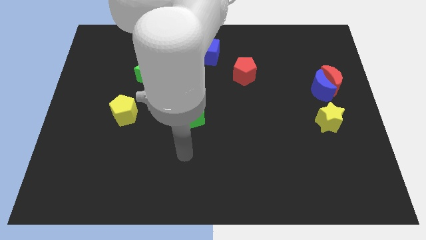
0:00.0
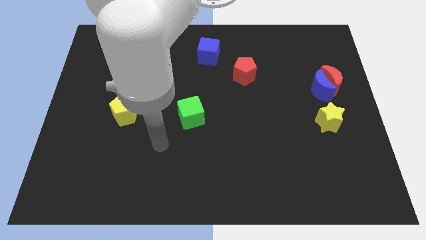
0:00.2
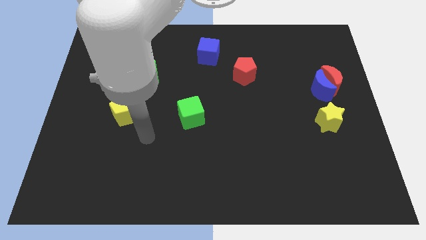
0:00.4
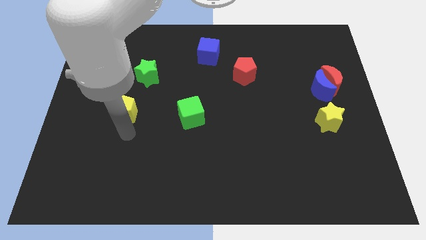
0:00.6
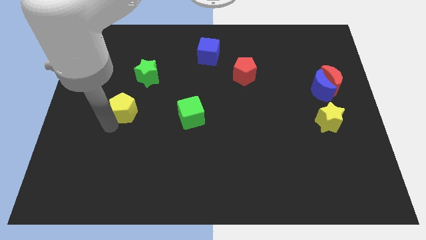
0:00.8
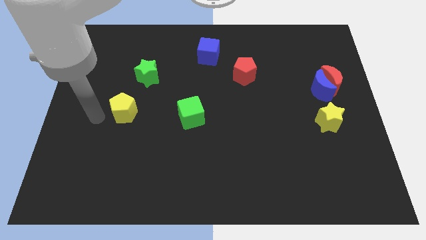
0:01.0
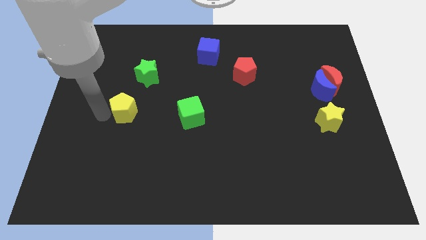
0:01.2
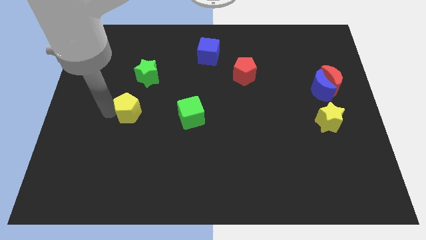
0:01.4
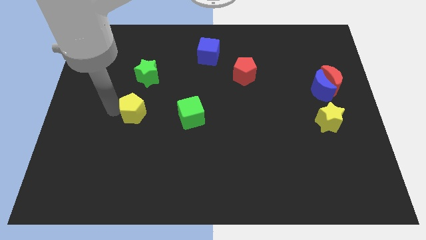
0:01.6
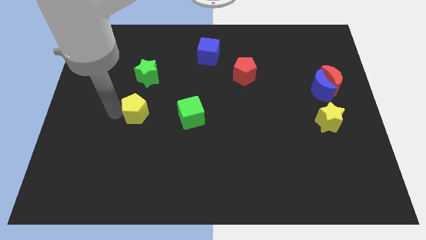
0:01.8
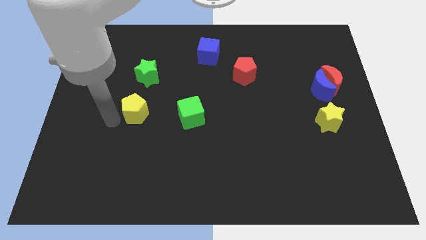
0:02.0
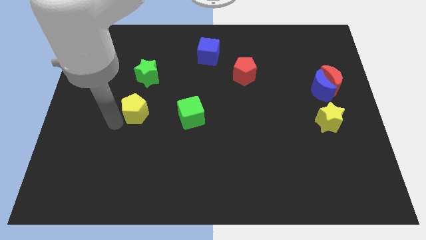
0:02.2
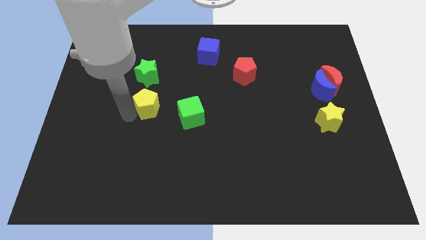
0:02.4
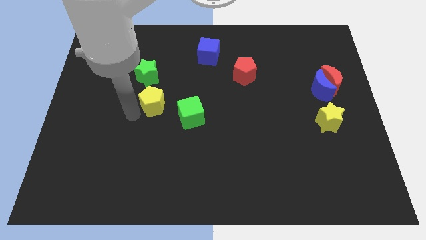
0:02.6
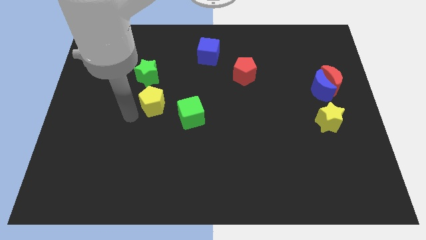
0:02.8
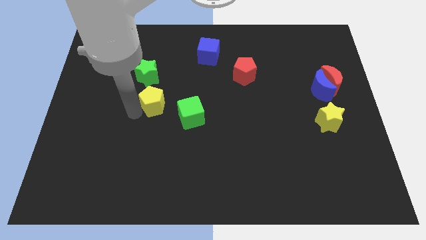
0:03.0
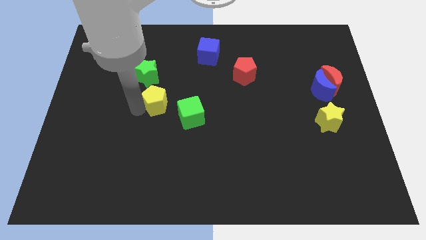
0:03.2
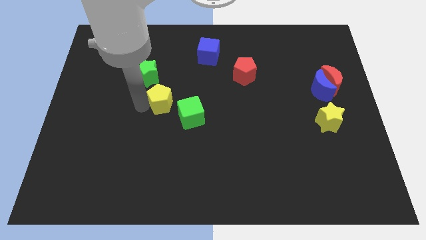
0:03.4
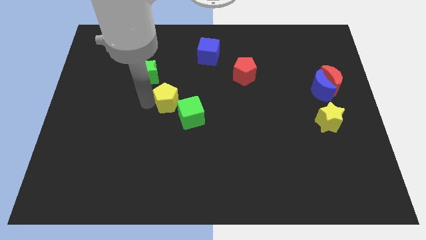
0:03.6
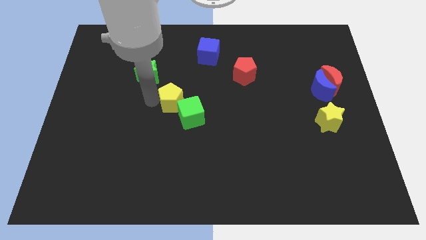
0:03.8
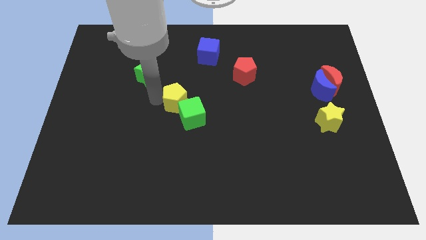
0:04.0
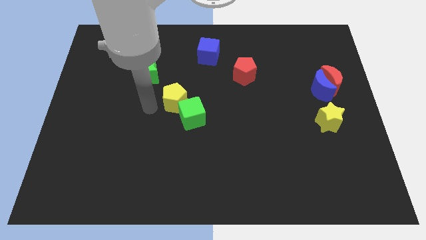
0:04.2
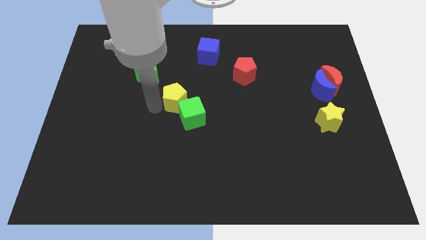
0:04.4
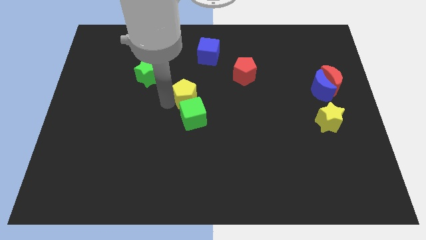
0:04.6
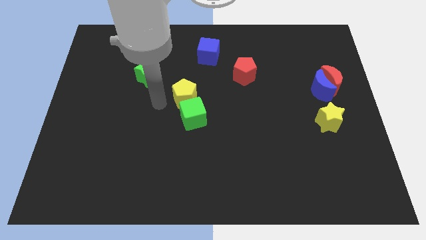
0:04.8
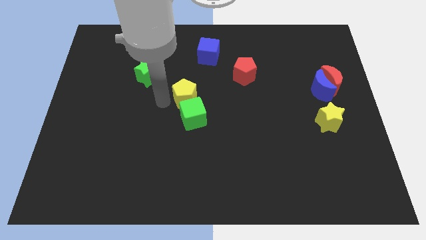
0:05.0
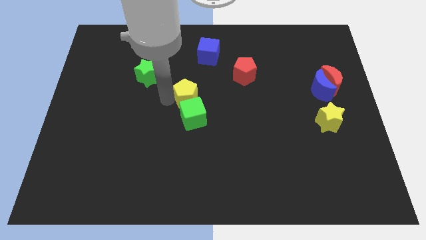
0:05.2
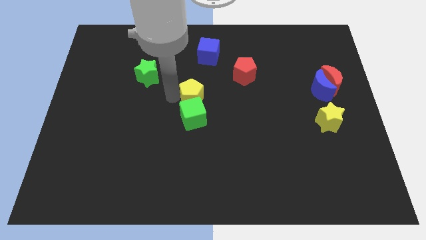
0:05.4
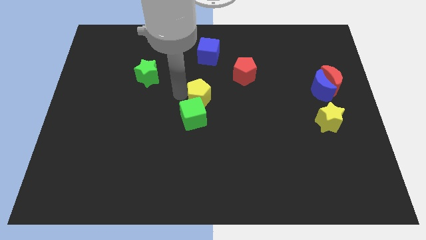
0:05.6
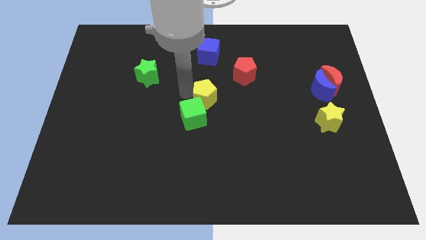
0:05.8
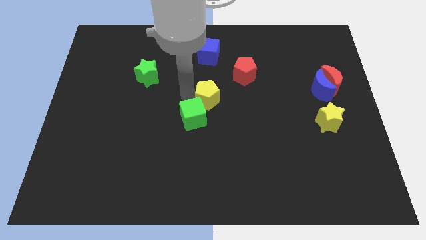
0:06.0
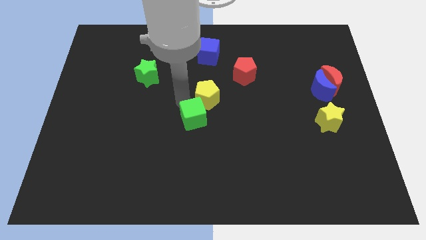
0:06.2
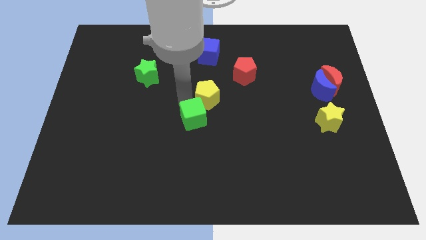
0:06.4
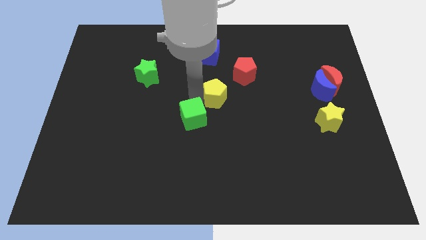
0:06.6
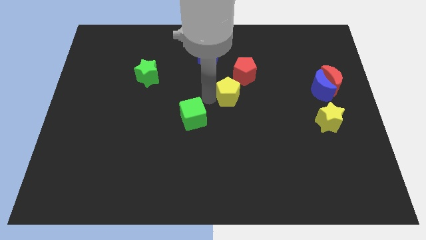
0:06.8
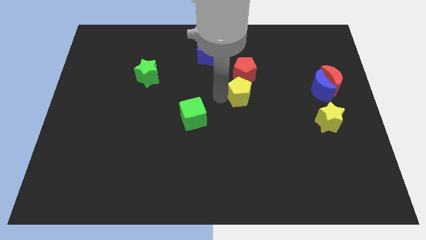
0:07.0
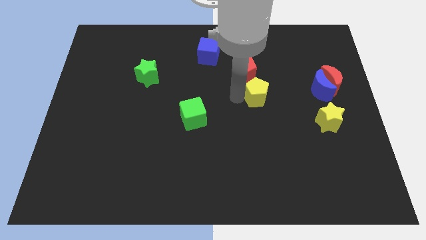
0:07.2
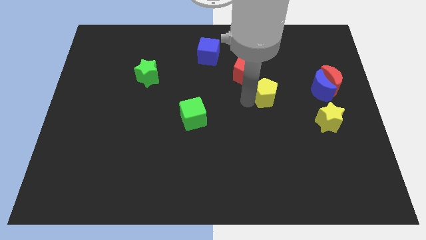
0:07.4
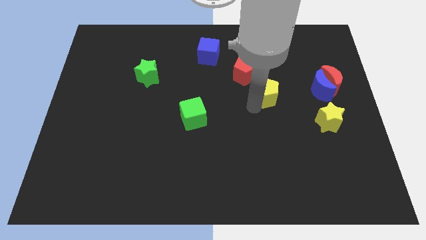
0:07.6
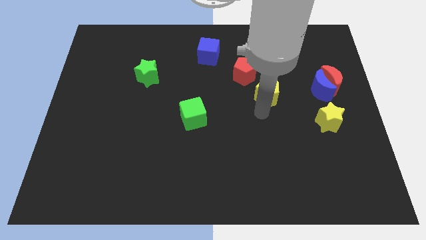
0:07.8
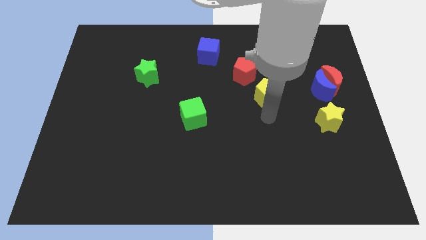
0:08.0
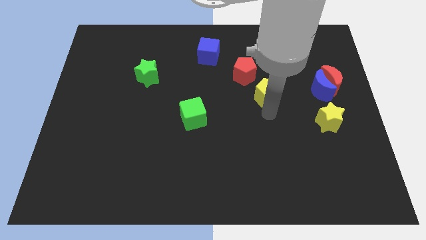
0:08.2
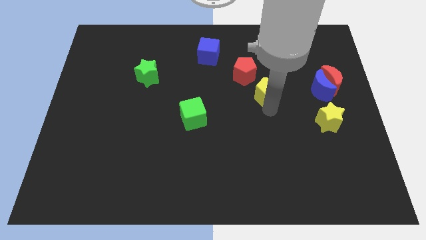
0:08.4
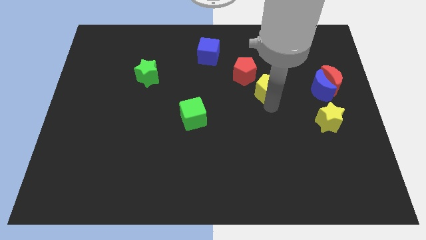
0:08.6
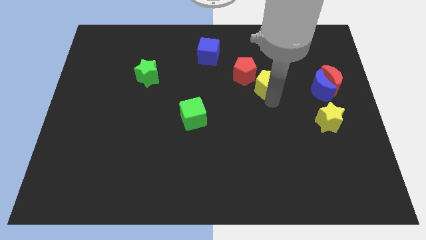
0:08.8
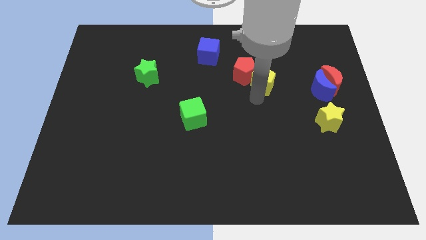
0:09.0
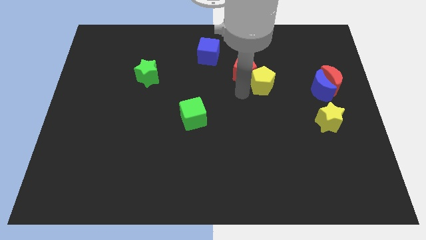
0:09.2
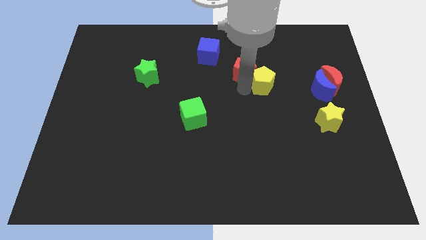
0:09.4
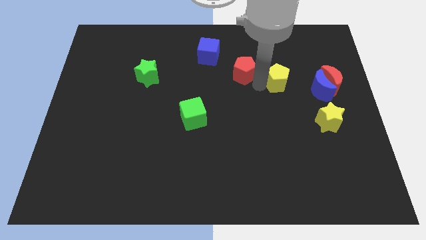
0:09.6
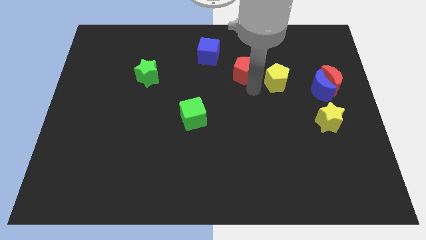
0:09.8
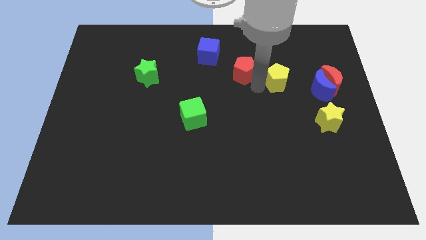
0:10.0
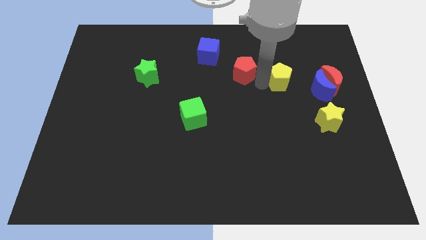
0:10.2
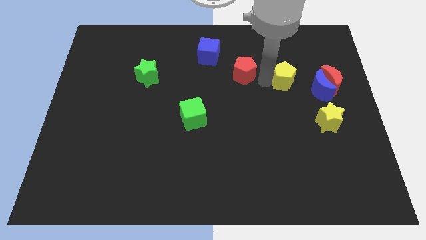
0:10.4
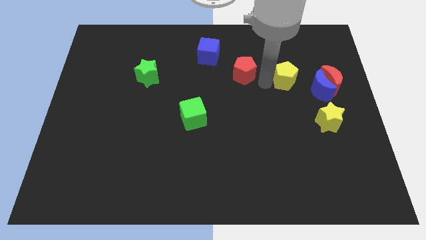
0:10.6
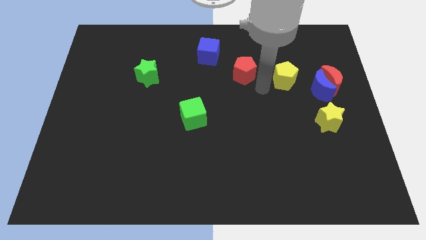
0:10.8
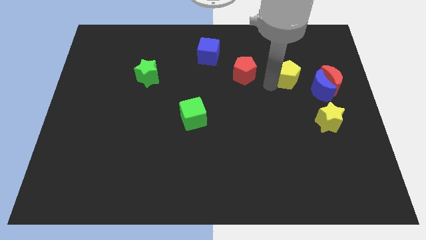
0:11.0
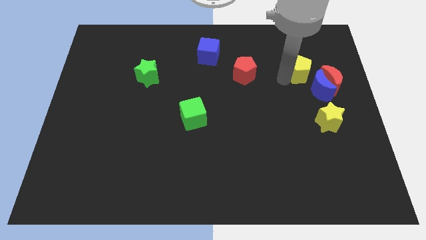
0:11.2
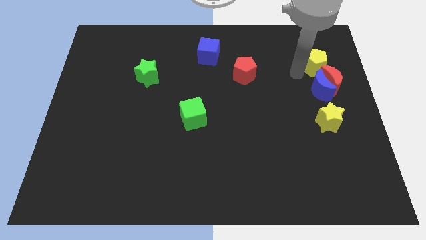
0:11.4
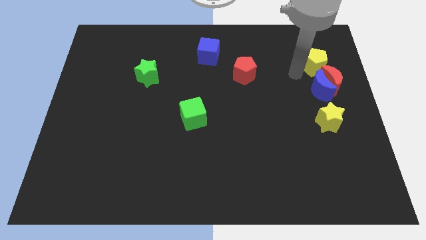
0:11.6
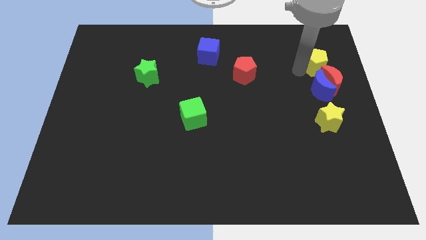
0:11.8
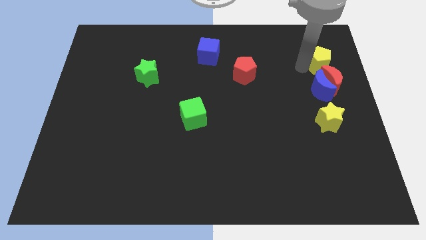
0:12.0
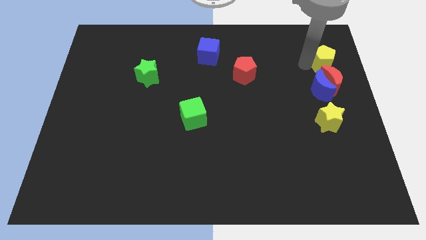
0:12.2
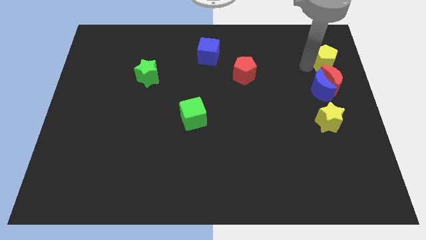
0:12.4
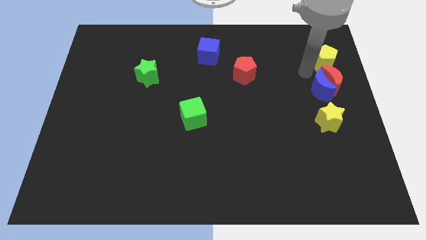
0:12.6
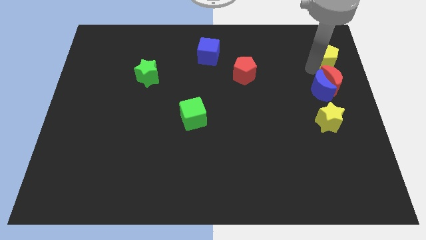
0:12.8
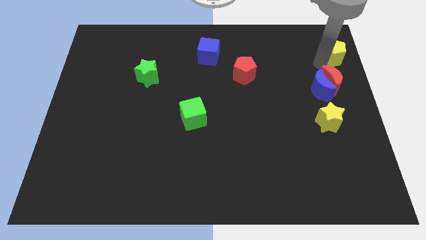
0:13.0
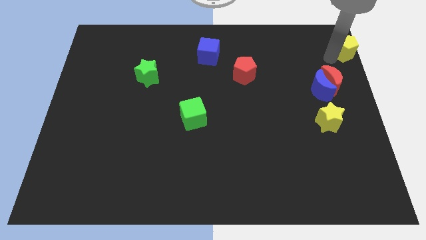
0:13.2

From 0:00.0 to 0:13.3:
slide the yellow pentagon to the upper right corner

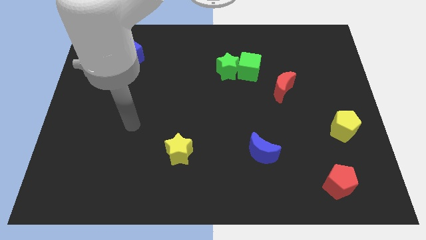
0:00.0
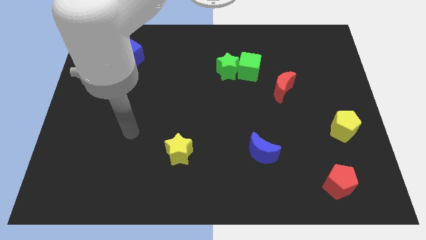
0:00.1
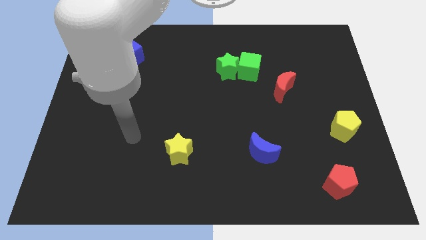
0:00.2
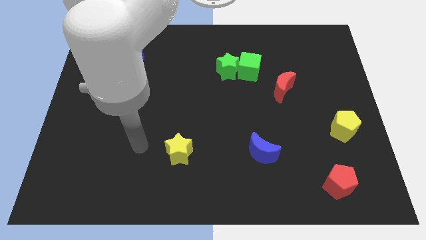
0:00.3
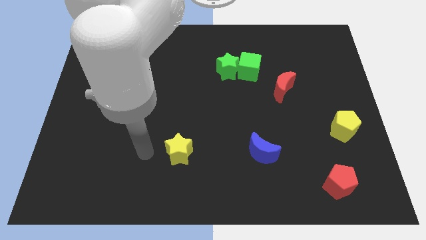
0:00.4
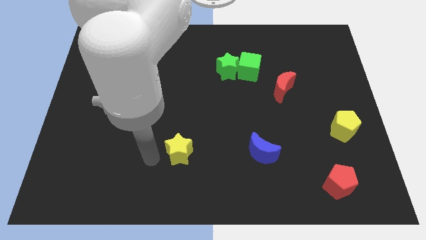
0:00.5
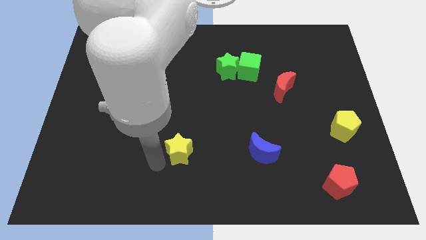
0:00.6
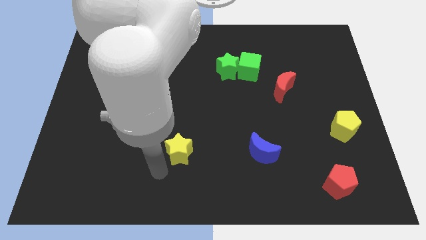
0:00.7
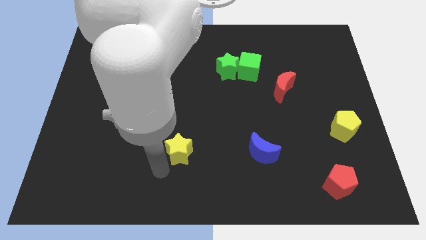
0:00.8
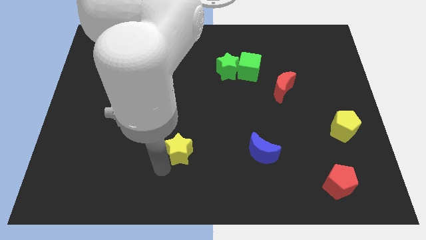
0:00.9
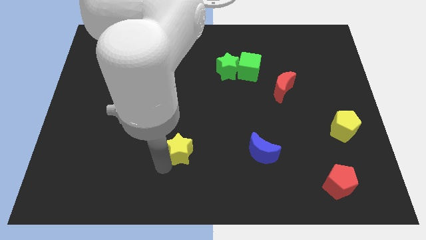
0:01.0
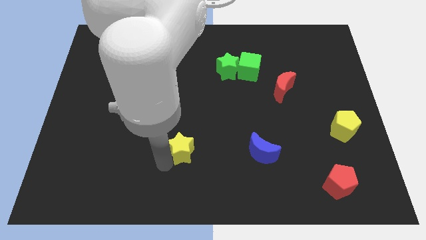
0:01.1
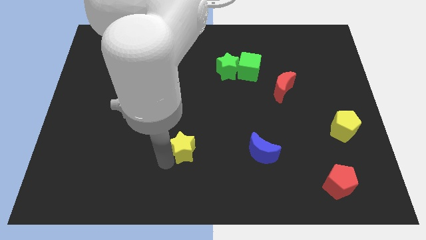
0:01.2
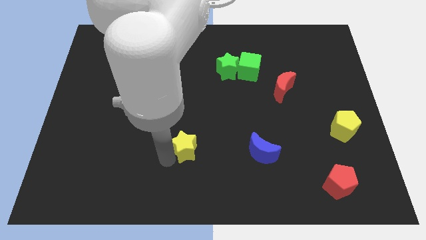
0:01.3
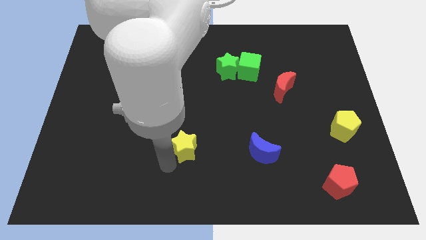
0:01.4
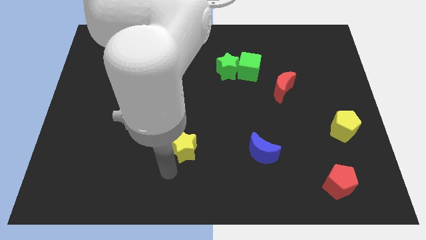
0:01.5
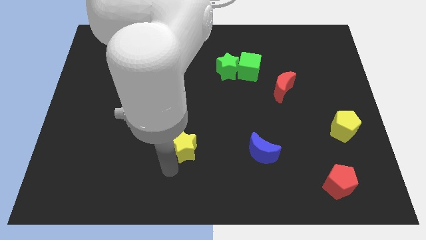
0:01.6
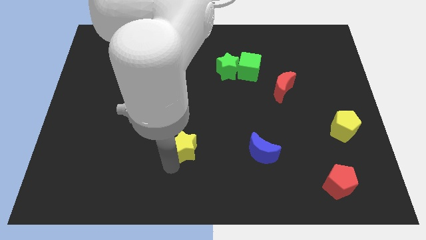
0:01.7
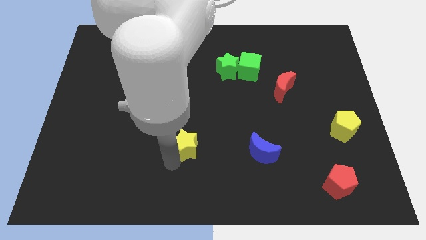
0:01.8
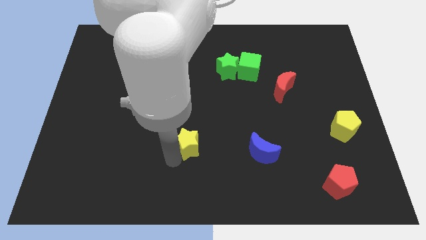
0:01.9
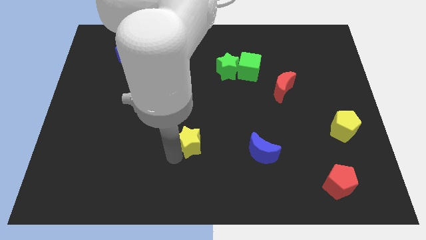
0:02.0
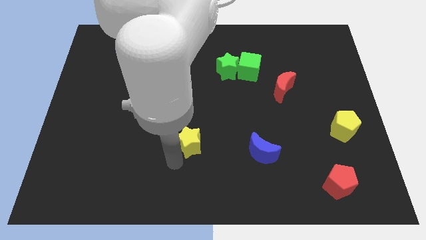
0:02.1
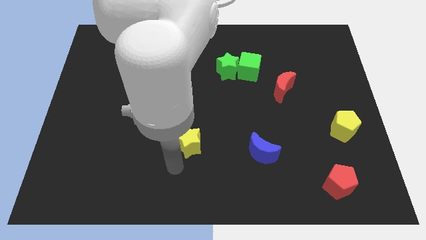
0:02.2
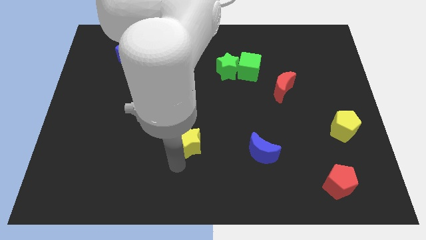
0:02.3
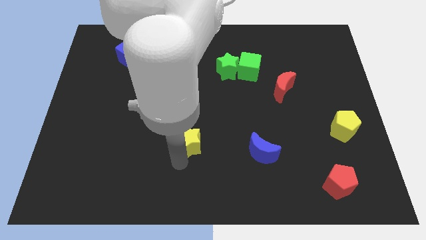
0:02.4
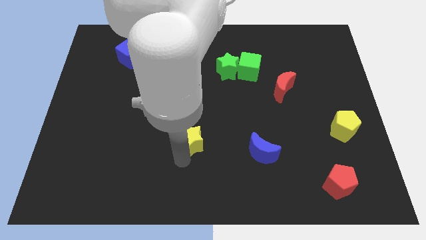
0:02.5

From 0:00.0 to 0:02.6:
put the yellow star to the middle
